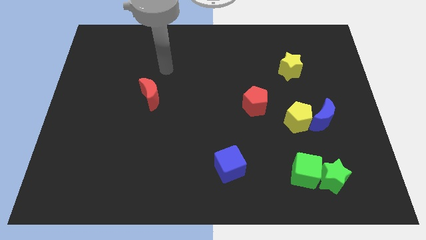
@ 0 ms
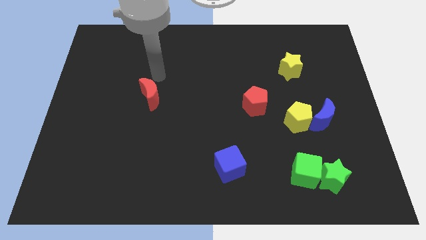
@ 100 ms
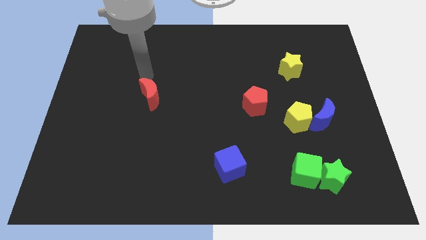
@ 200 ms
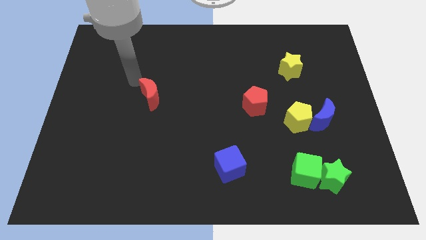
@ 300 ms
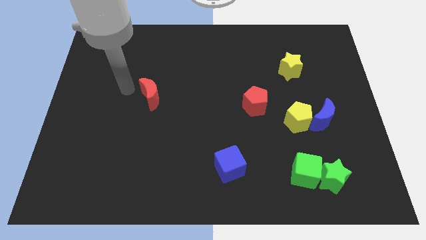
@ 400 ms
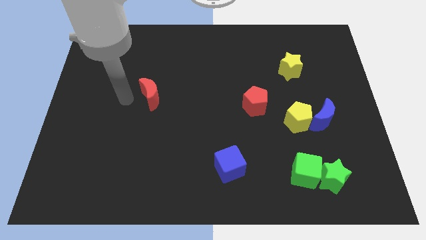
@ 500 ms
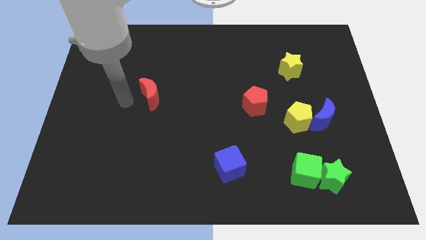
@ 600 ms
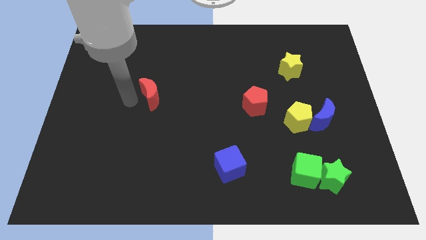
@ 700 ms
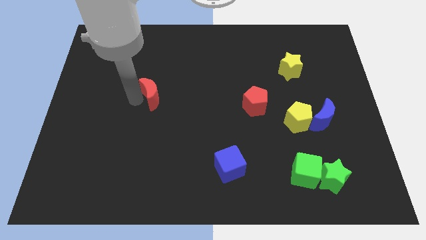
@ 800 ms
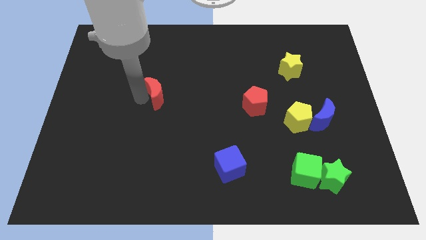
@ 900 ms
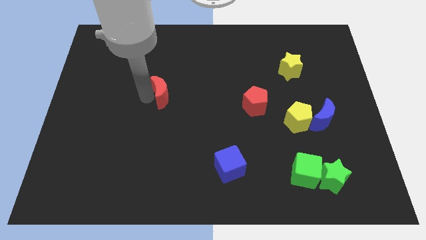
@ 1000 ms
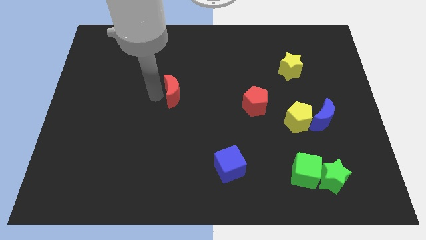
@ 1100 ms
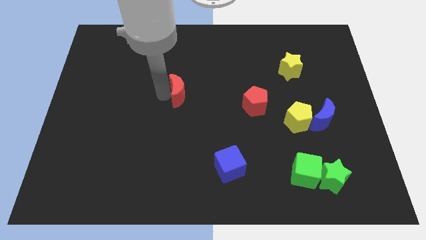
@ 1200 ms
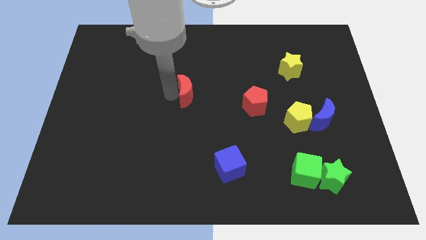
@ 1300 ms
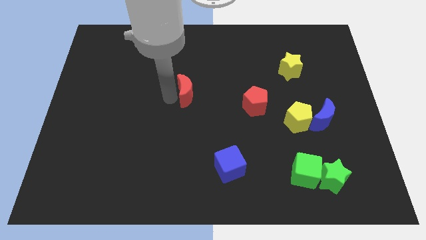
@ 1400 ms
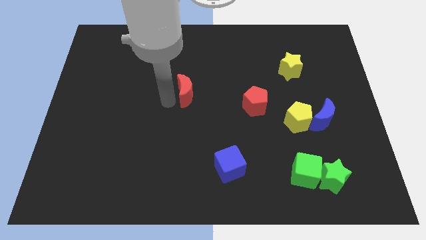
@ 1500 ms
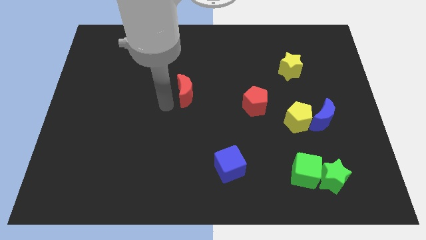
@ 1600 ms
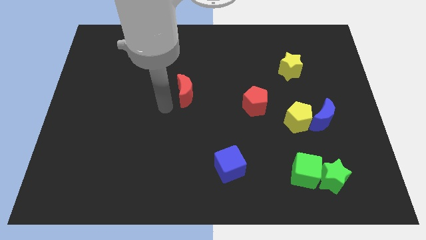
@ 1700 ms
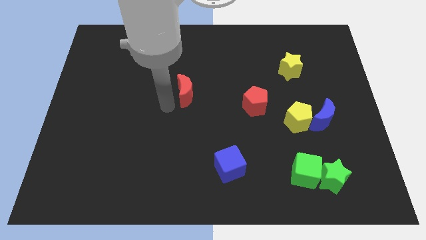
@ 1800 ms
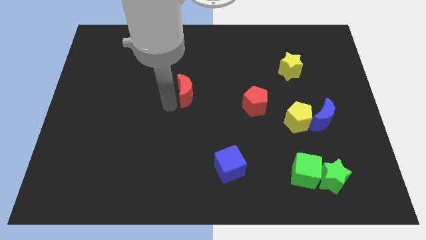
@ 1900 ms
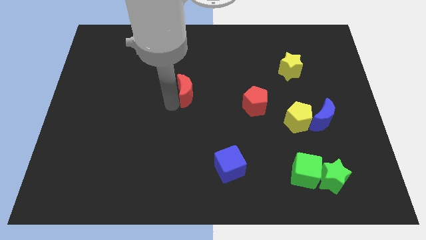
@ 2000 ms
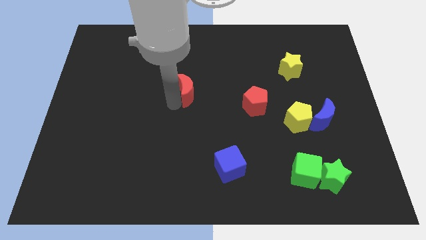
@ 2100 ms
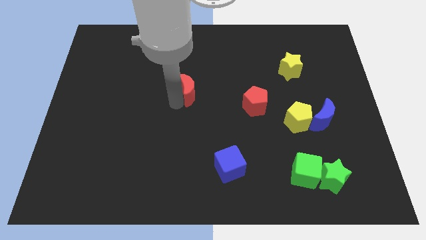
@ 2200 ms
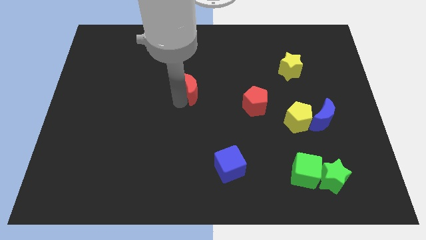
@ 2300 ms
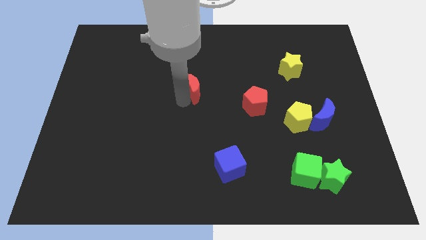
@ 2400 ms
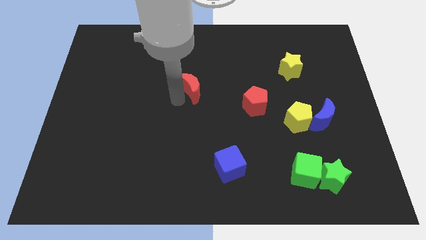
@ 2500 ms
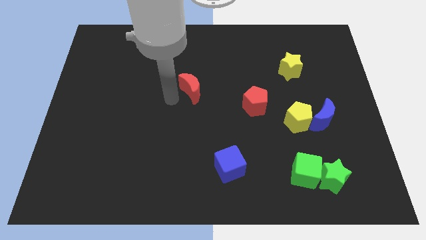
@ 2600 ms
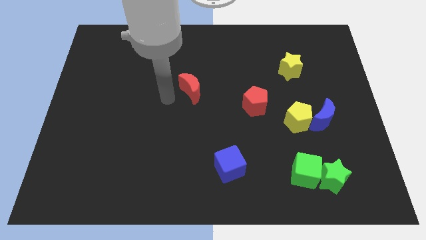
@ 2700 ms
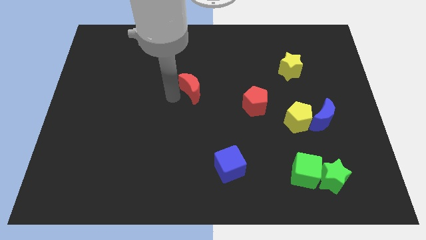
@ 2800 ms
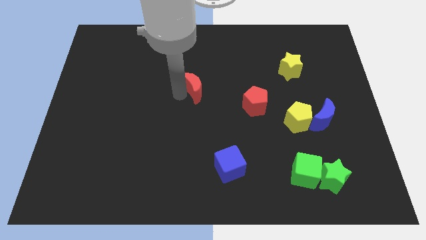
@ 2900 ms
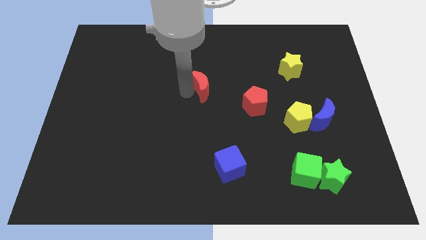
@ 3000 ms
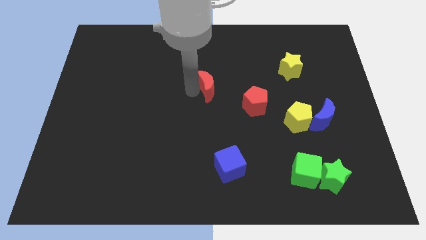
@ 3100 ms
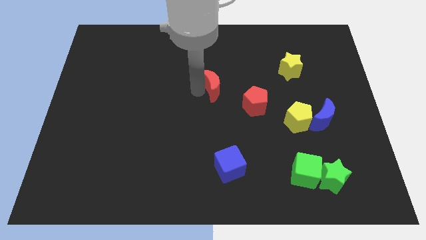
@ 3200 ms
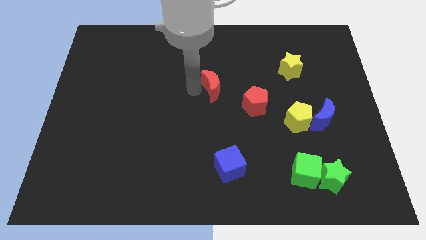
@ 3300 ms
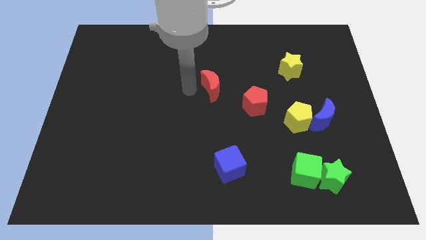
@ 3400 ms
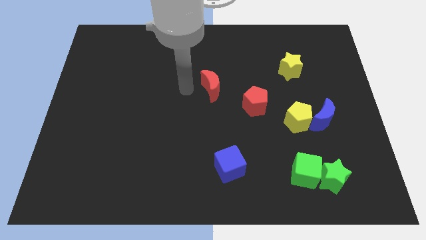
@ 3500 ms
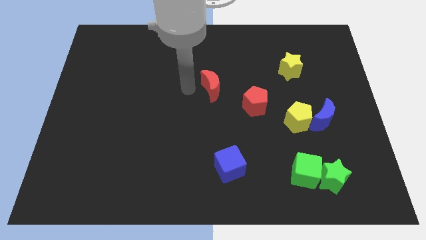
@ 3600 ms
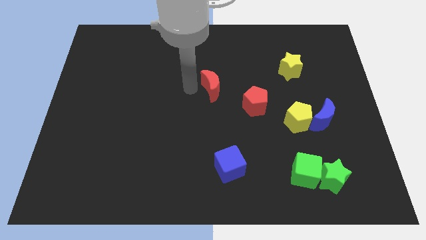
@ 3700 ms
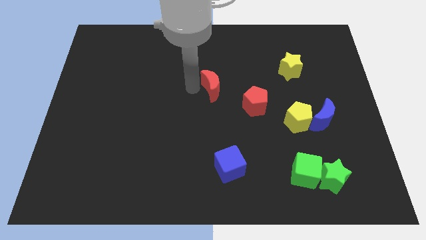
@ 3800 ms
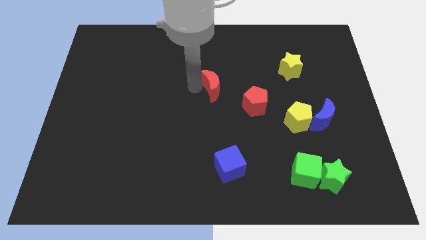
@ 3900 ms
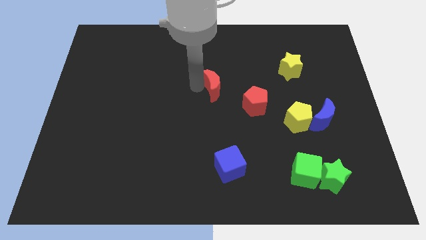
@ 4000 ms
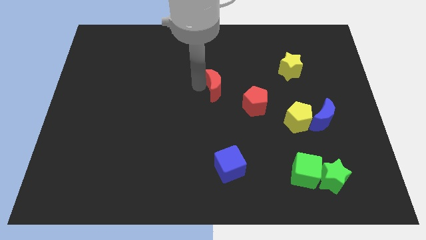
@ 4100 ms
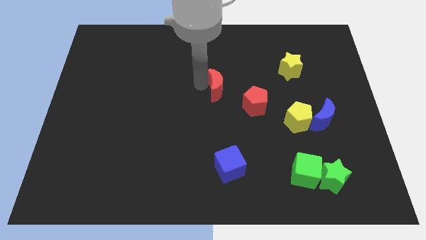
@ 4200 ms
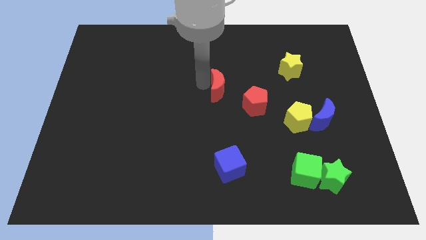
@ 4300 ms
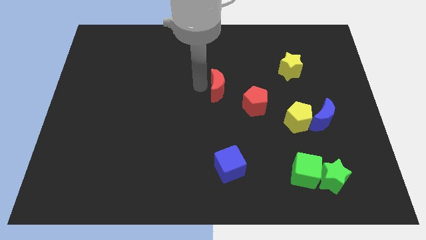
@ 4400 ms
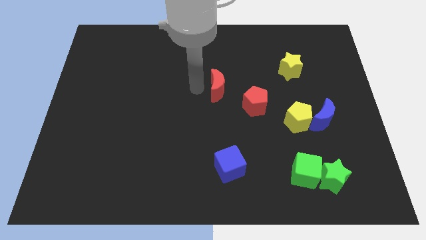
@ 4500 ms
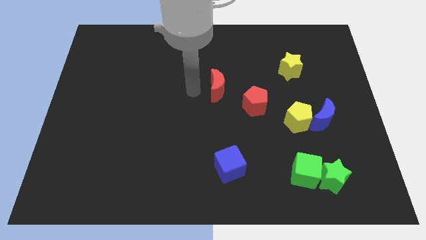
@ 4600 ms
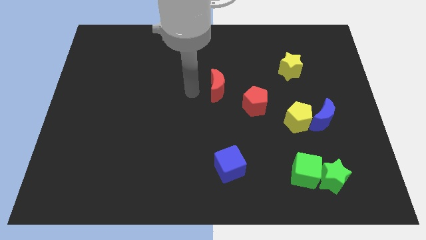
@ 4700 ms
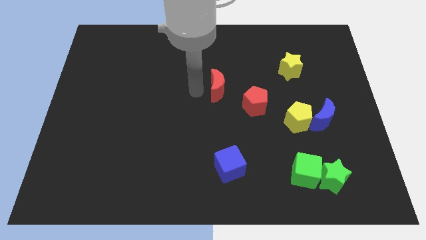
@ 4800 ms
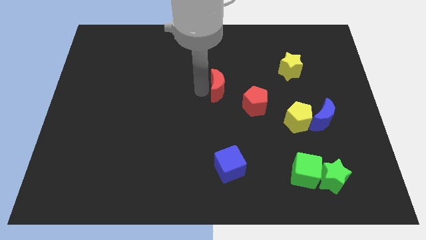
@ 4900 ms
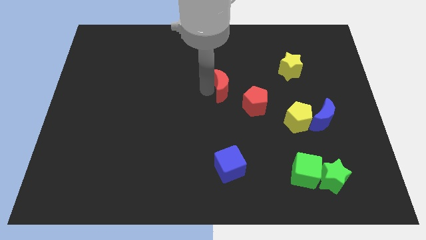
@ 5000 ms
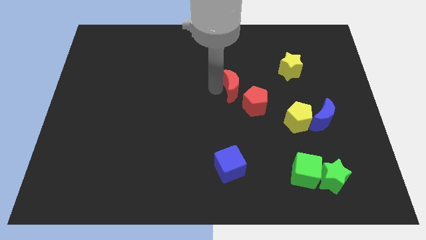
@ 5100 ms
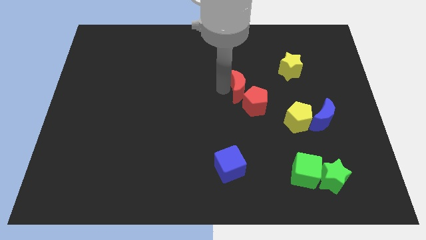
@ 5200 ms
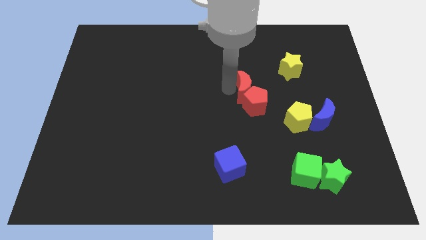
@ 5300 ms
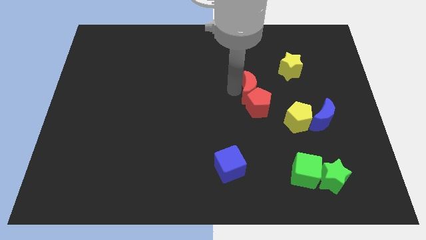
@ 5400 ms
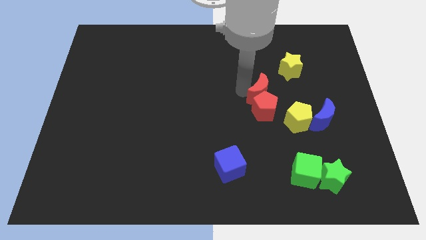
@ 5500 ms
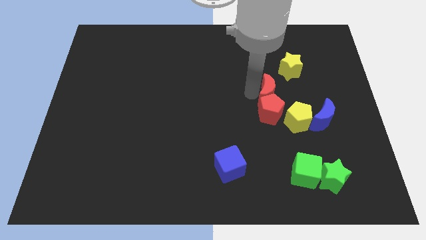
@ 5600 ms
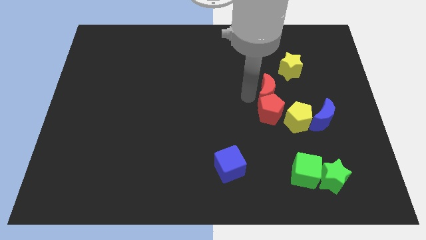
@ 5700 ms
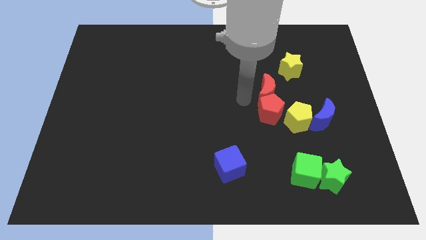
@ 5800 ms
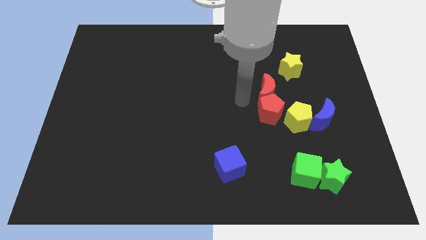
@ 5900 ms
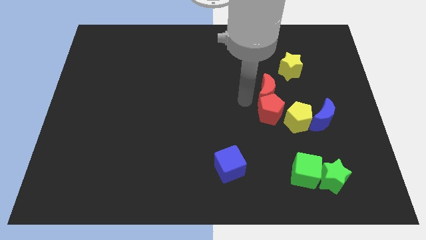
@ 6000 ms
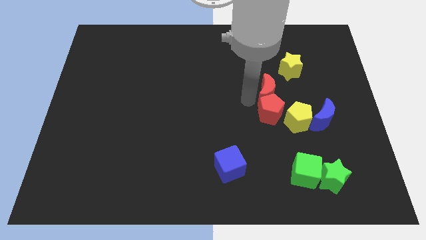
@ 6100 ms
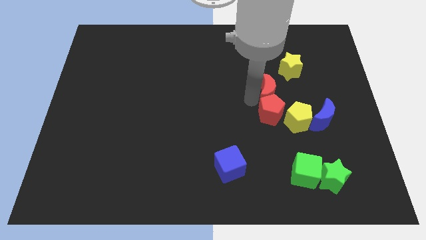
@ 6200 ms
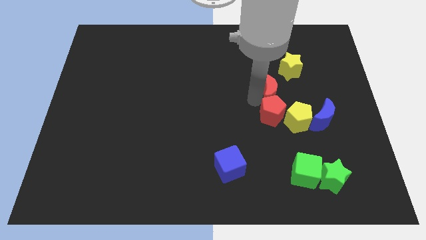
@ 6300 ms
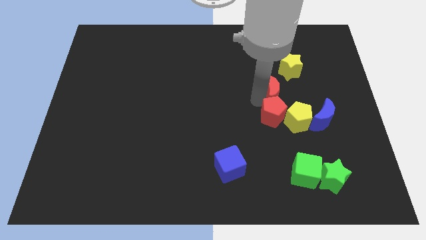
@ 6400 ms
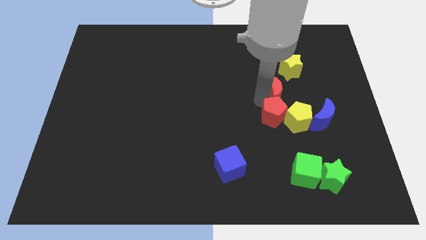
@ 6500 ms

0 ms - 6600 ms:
put the red moon above the yellow pentagon

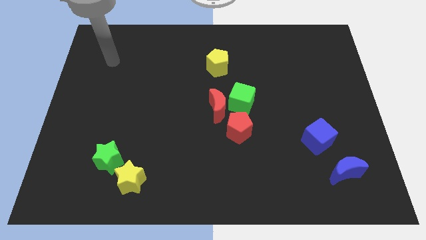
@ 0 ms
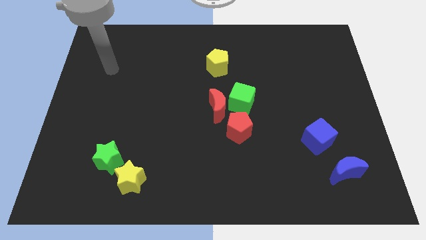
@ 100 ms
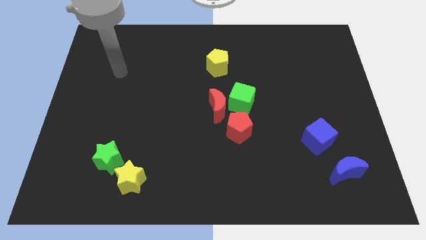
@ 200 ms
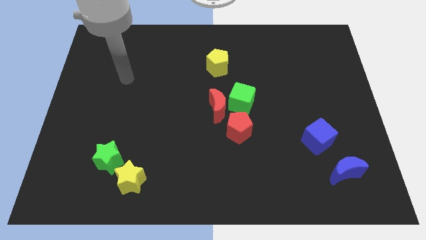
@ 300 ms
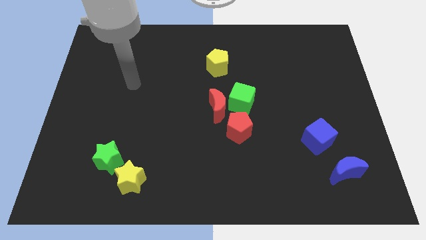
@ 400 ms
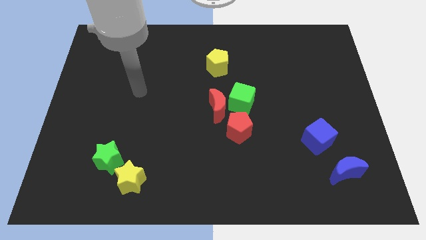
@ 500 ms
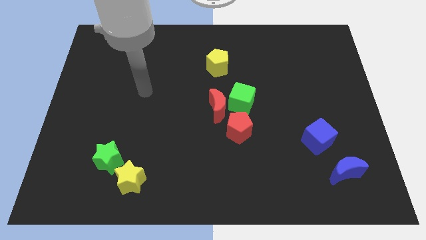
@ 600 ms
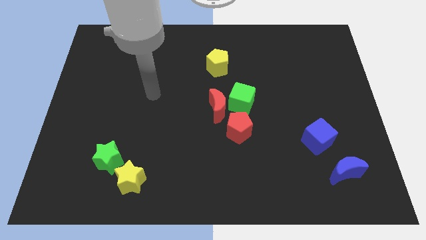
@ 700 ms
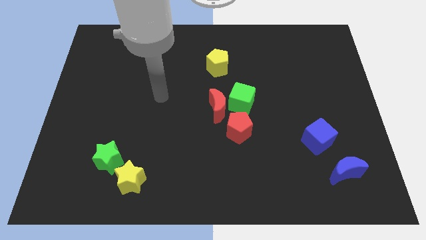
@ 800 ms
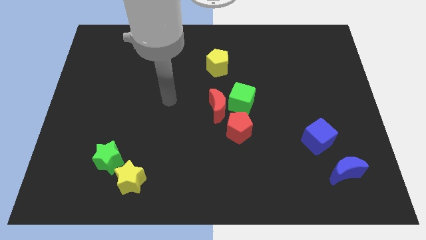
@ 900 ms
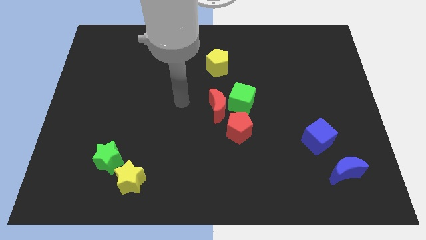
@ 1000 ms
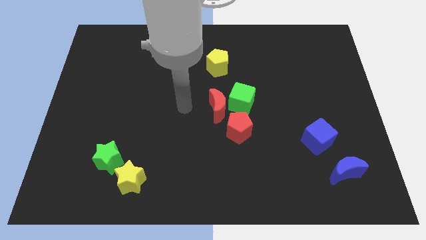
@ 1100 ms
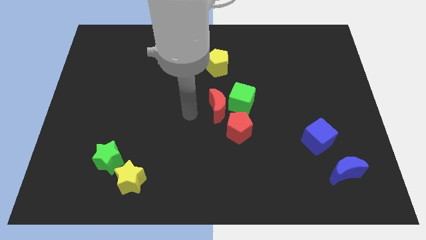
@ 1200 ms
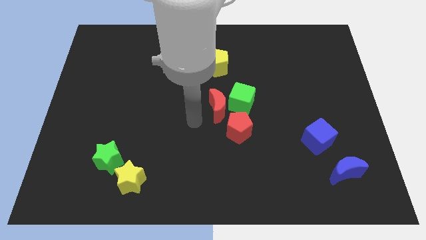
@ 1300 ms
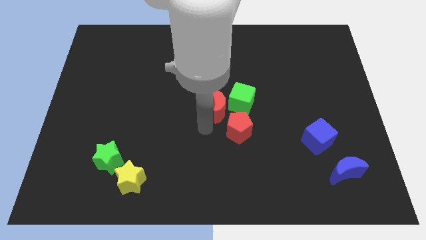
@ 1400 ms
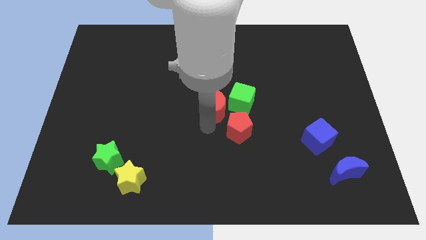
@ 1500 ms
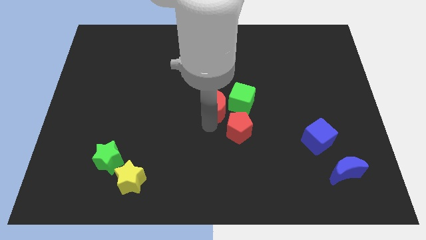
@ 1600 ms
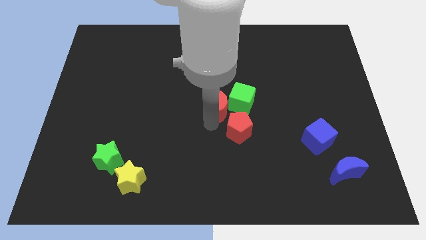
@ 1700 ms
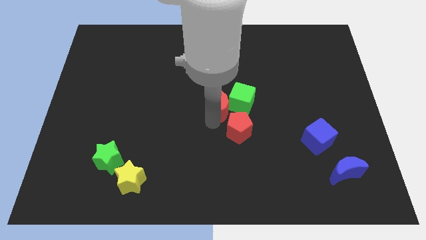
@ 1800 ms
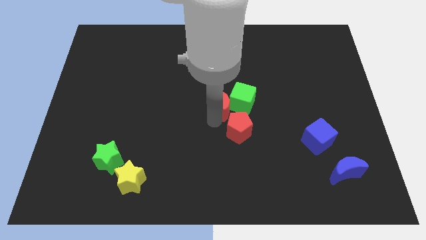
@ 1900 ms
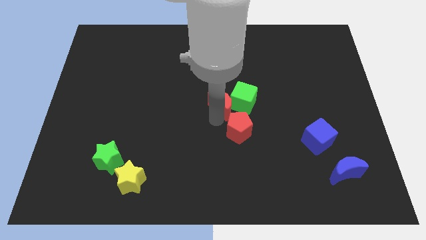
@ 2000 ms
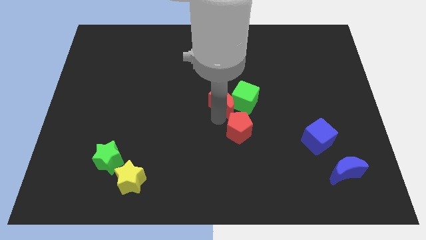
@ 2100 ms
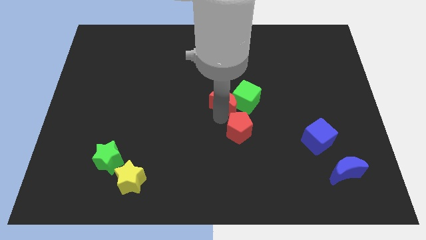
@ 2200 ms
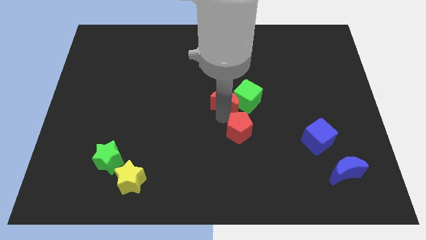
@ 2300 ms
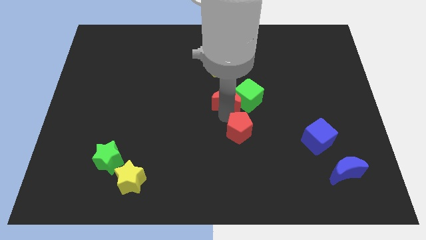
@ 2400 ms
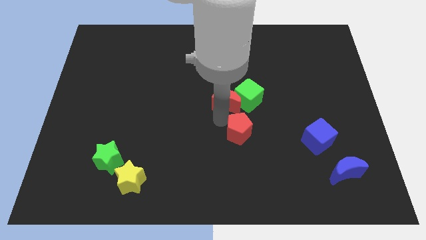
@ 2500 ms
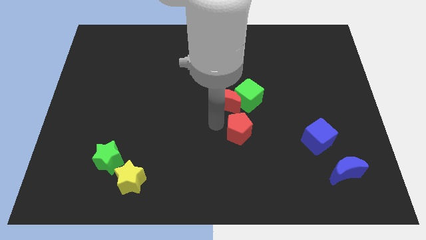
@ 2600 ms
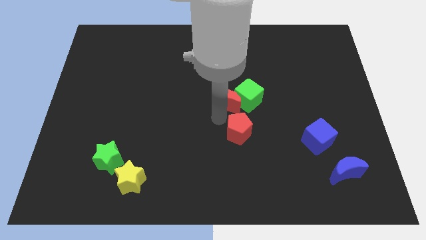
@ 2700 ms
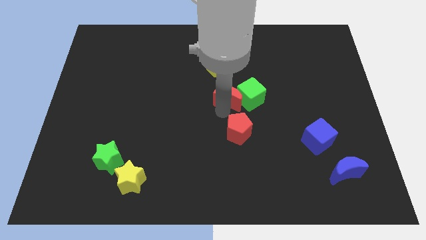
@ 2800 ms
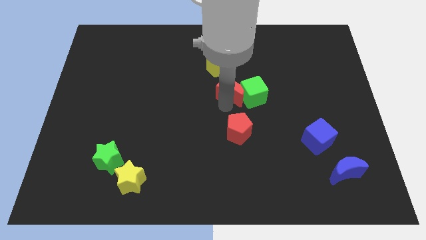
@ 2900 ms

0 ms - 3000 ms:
slide the red moon to the bottom right side of the yellow pentagon
